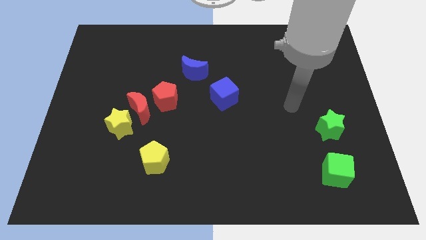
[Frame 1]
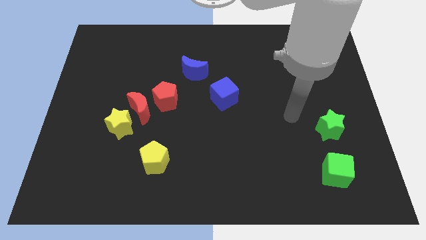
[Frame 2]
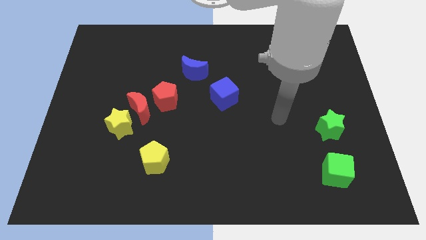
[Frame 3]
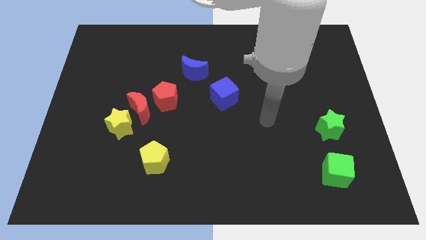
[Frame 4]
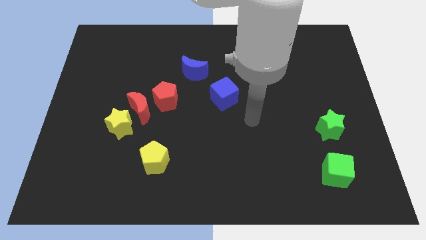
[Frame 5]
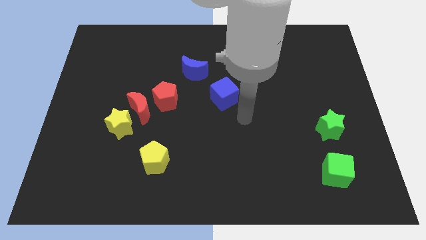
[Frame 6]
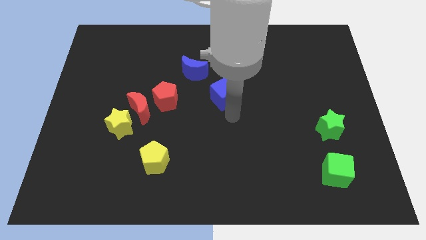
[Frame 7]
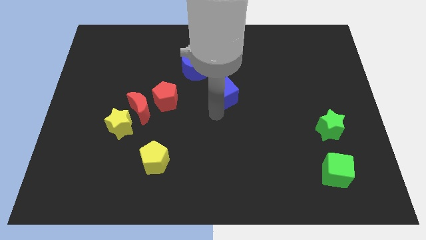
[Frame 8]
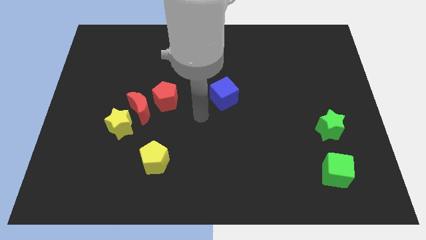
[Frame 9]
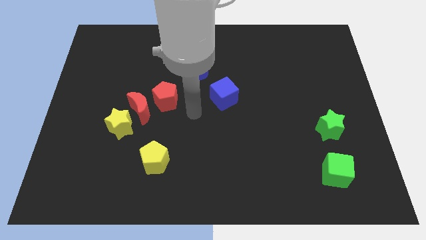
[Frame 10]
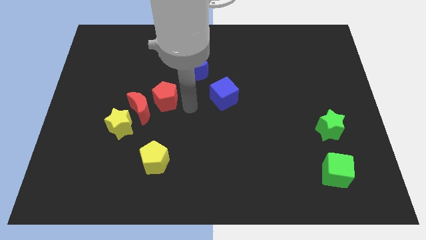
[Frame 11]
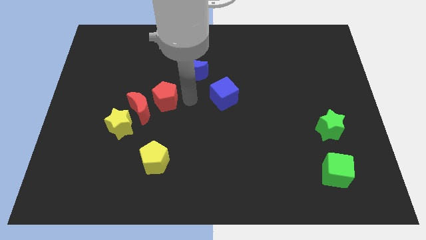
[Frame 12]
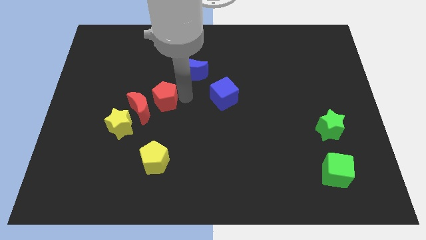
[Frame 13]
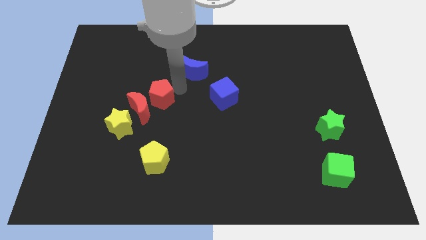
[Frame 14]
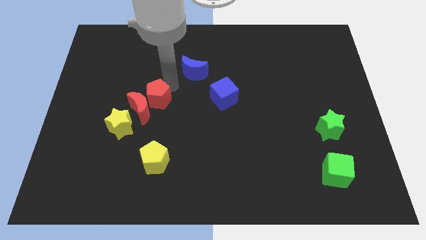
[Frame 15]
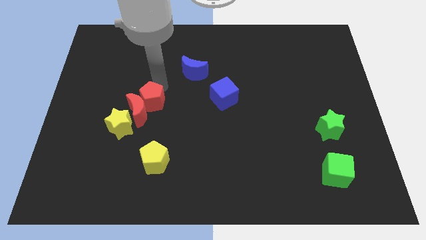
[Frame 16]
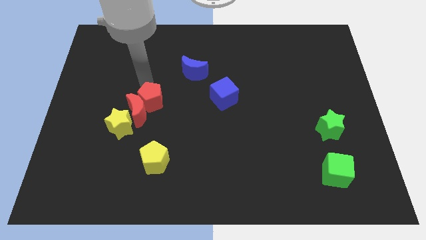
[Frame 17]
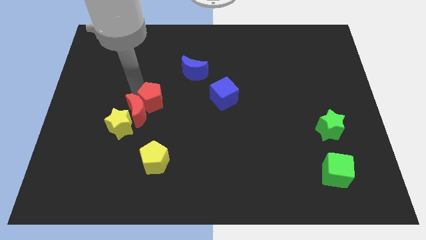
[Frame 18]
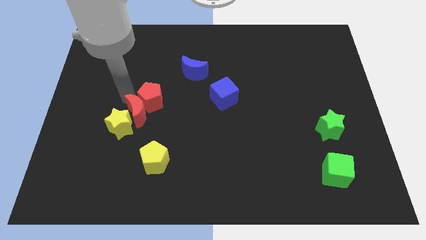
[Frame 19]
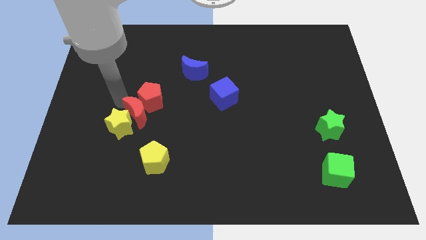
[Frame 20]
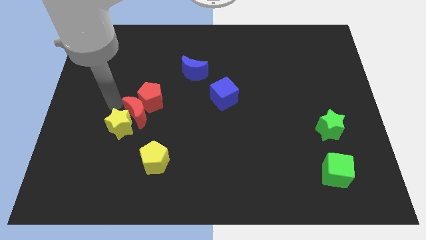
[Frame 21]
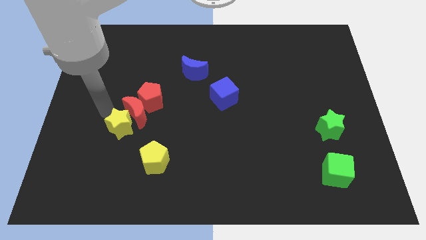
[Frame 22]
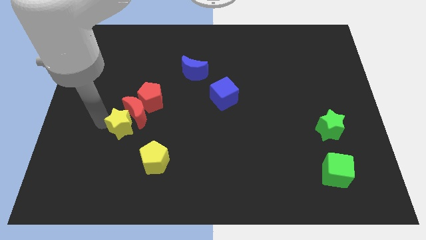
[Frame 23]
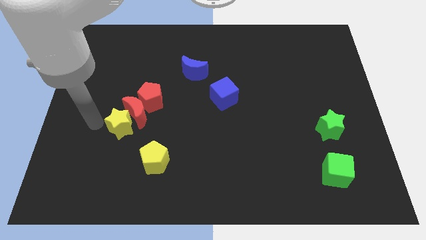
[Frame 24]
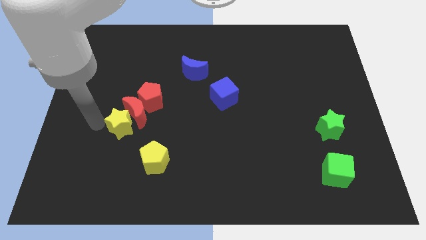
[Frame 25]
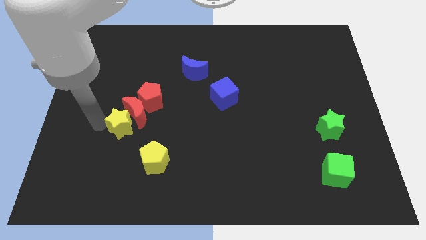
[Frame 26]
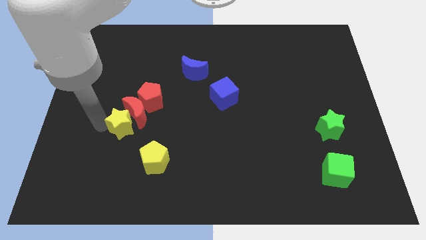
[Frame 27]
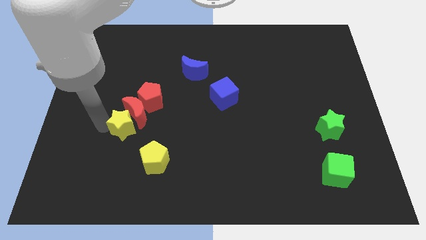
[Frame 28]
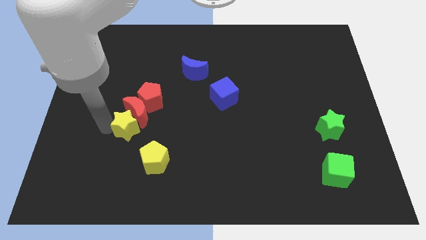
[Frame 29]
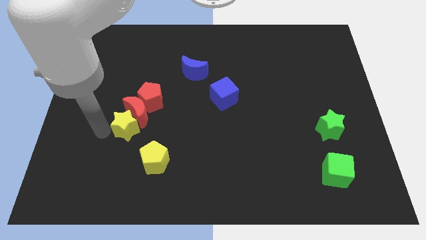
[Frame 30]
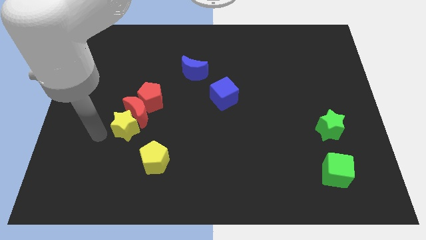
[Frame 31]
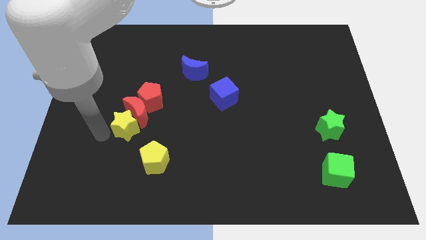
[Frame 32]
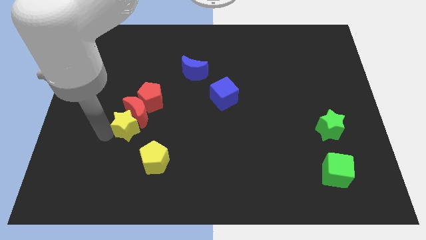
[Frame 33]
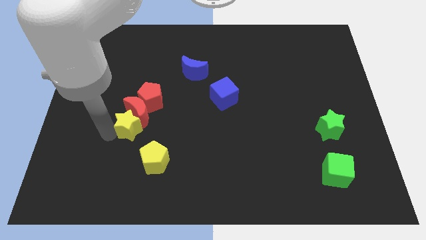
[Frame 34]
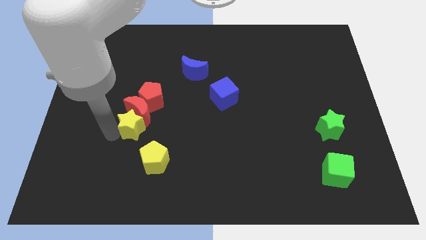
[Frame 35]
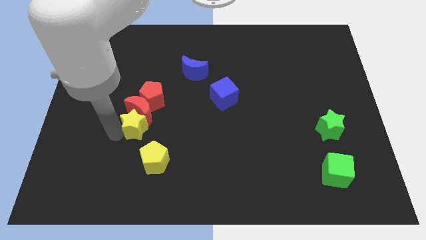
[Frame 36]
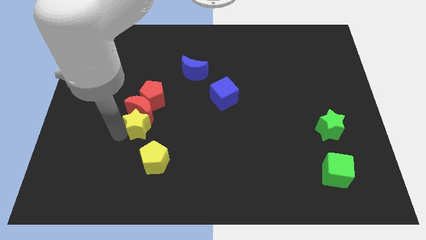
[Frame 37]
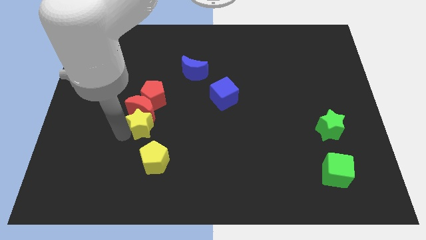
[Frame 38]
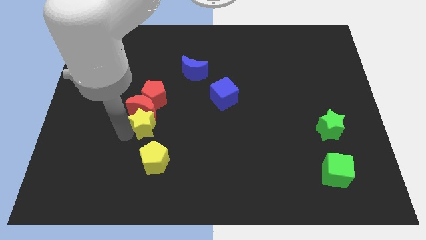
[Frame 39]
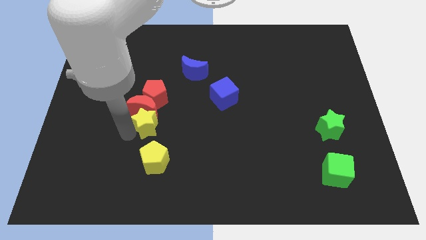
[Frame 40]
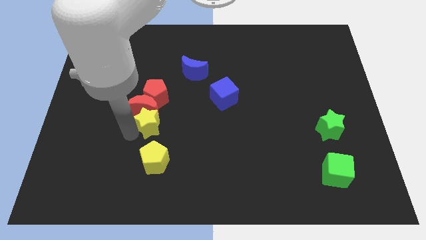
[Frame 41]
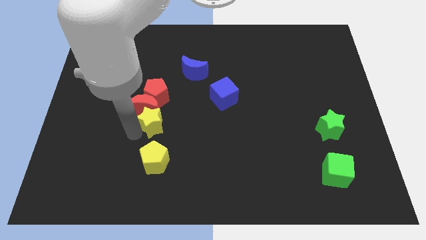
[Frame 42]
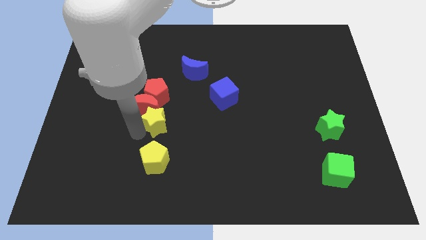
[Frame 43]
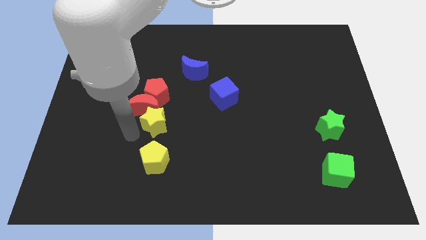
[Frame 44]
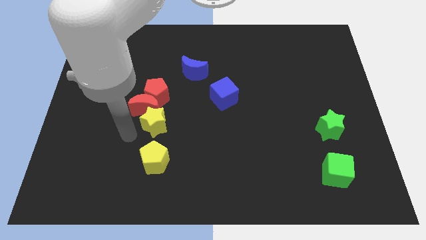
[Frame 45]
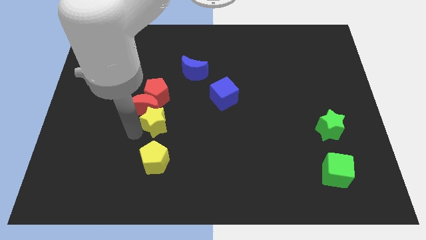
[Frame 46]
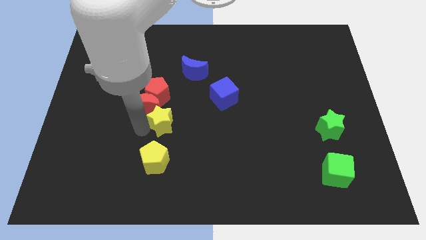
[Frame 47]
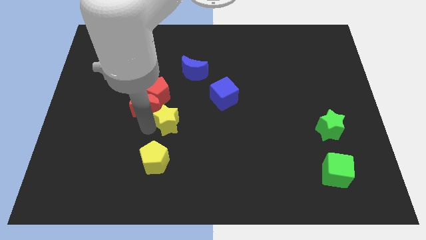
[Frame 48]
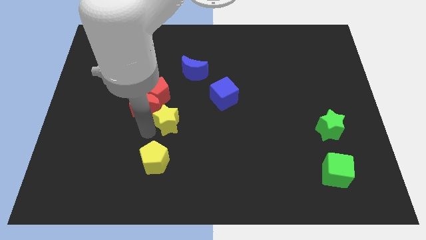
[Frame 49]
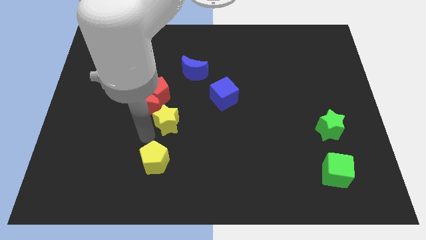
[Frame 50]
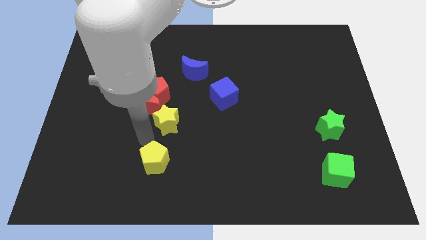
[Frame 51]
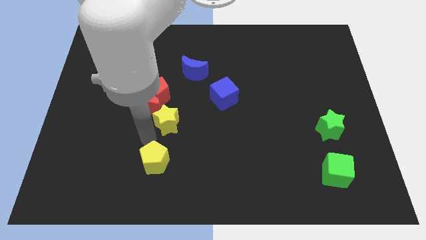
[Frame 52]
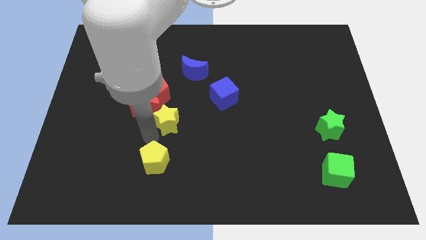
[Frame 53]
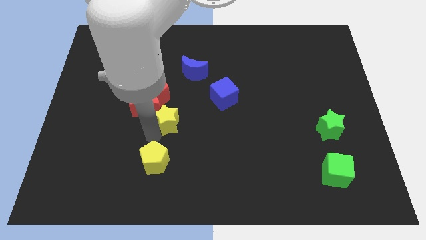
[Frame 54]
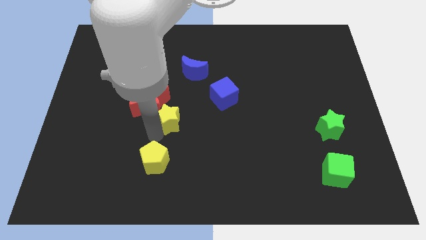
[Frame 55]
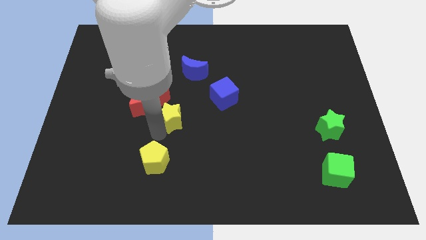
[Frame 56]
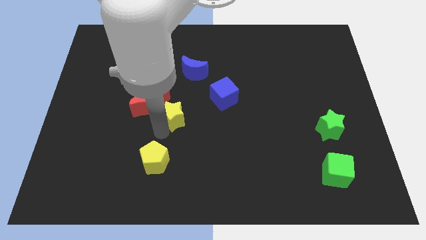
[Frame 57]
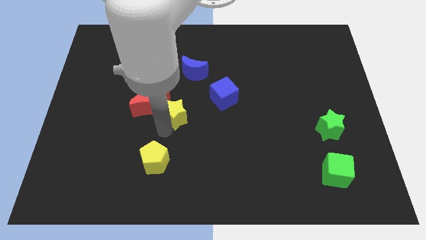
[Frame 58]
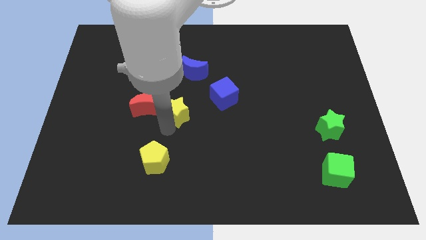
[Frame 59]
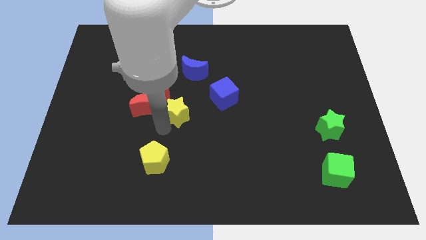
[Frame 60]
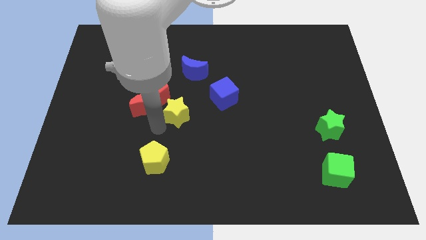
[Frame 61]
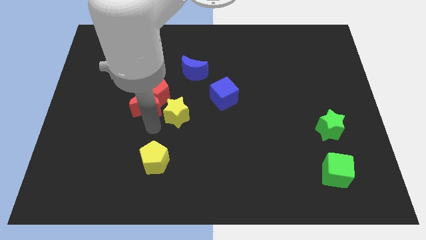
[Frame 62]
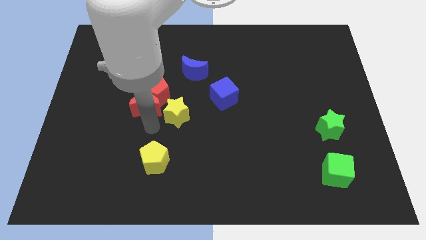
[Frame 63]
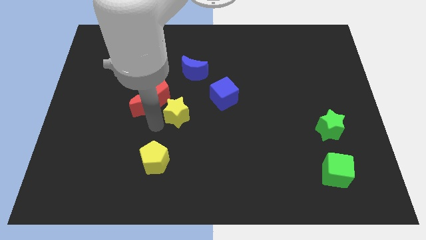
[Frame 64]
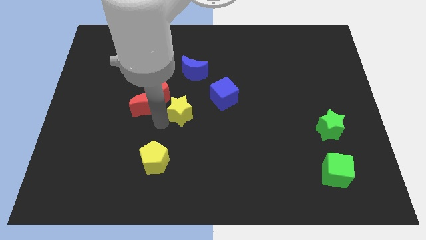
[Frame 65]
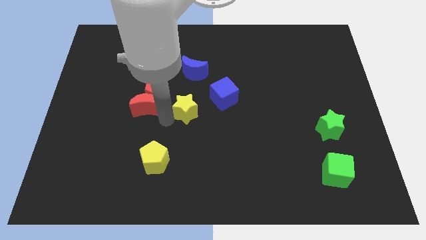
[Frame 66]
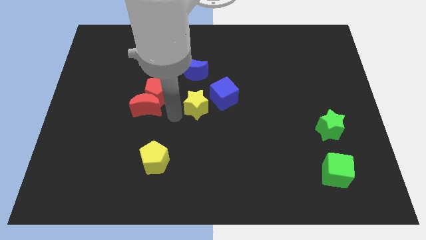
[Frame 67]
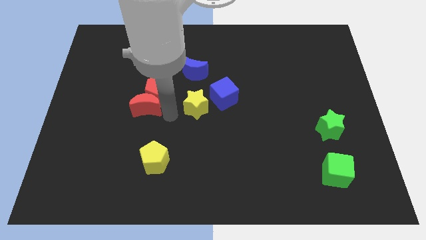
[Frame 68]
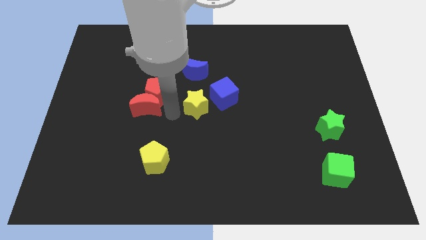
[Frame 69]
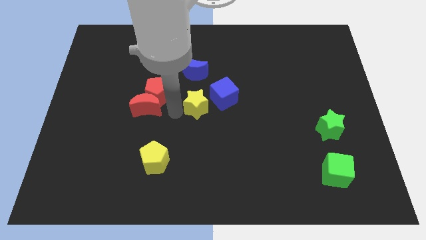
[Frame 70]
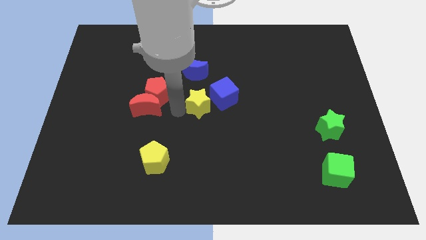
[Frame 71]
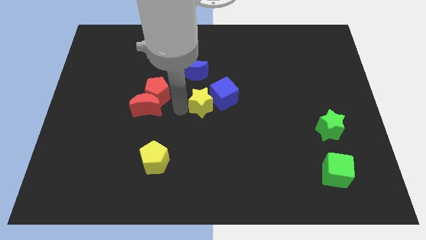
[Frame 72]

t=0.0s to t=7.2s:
slide the yellow star close to the blue cube

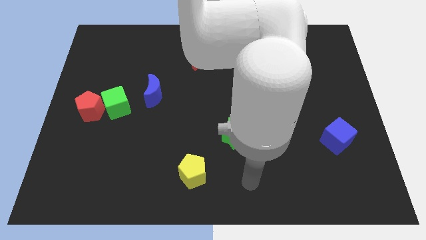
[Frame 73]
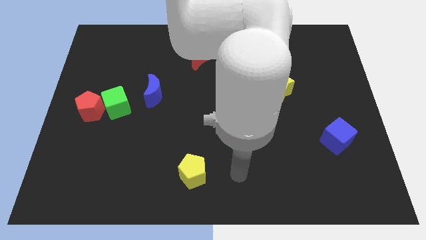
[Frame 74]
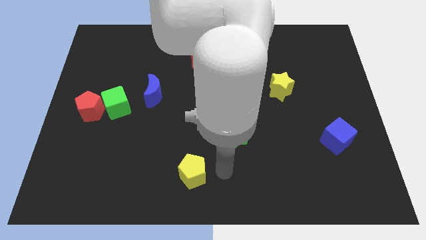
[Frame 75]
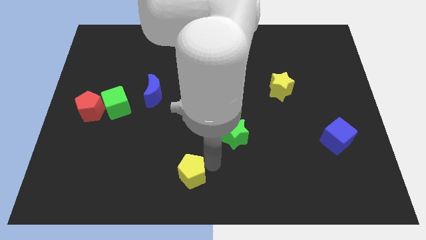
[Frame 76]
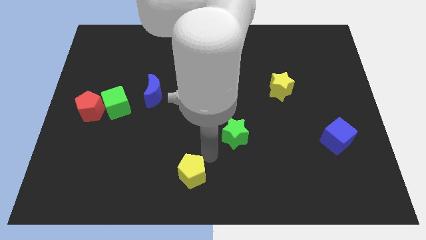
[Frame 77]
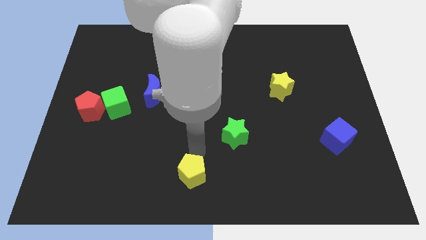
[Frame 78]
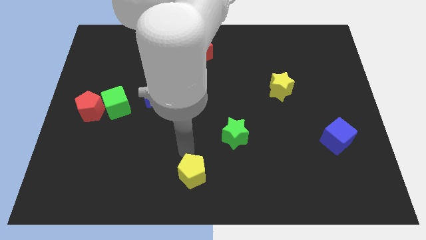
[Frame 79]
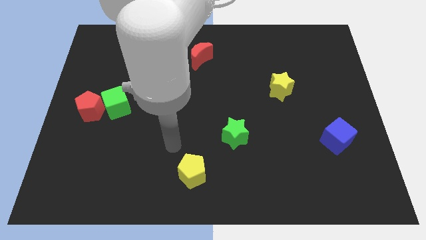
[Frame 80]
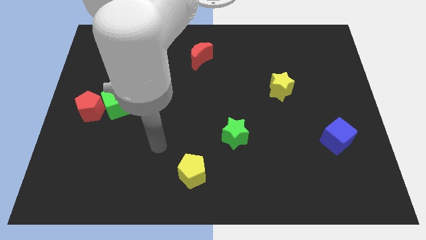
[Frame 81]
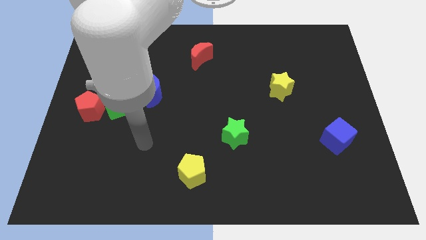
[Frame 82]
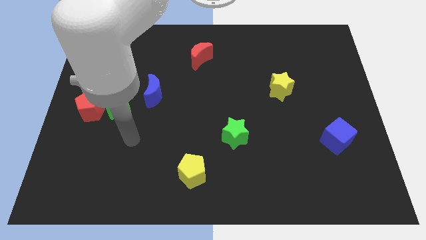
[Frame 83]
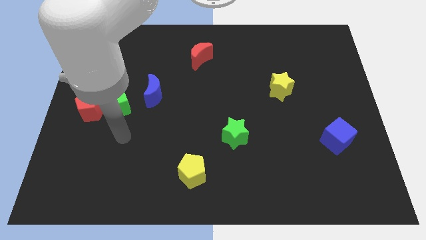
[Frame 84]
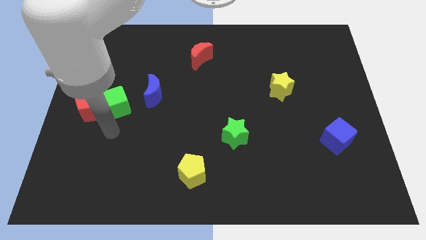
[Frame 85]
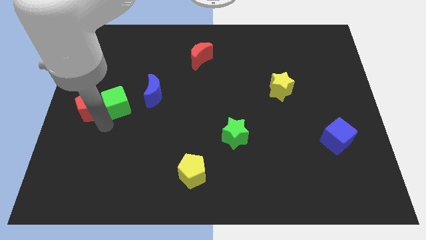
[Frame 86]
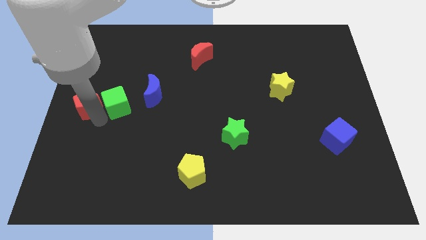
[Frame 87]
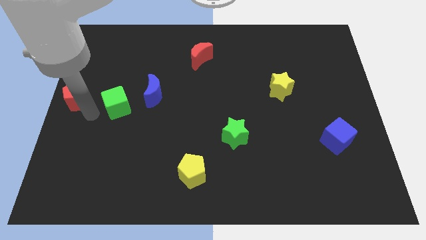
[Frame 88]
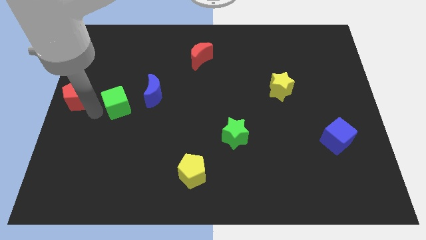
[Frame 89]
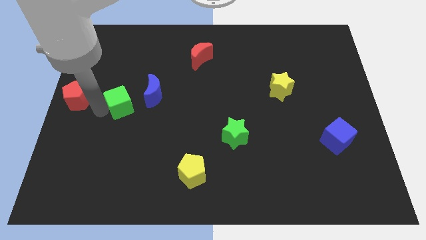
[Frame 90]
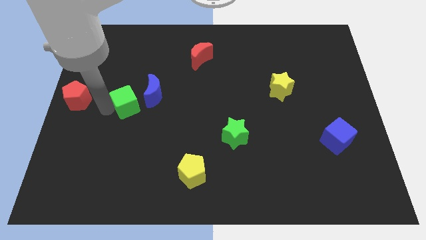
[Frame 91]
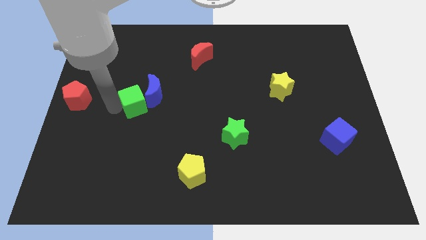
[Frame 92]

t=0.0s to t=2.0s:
slide the green cube towards the blue moon
